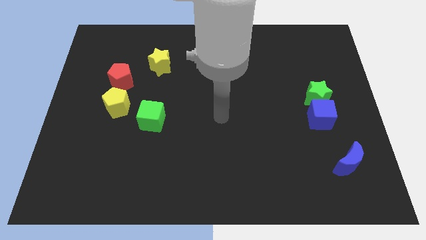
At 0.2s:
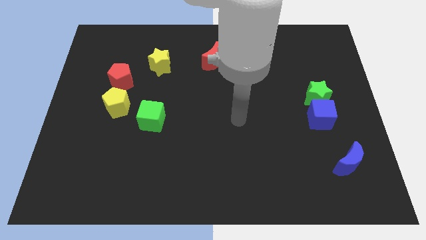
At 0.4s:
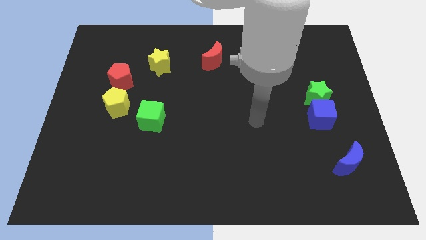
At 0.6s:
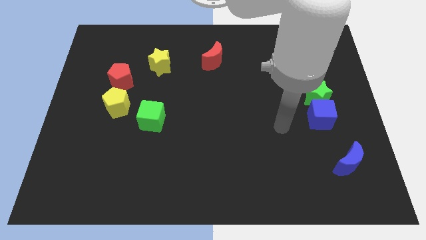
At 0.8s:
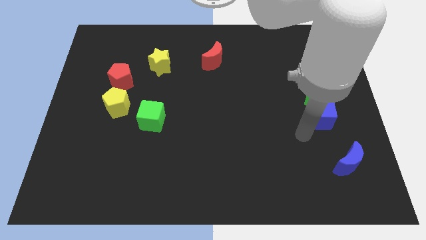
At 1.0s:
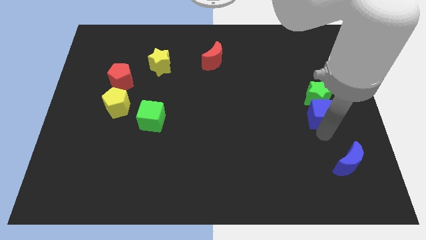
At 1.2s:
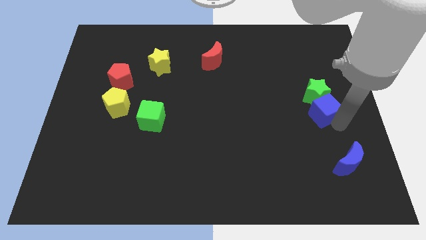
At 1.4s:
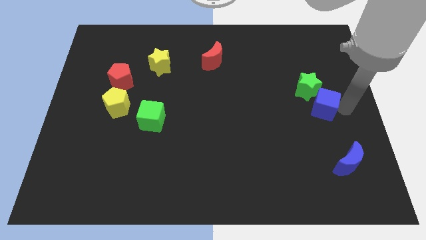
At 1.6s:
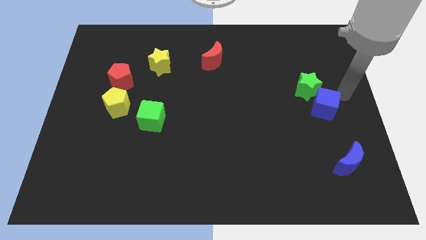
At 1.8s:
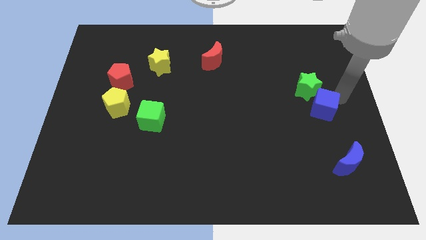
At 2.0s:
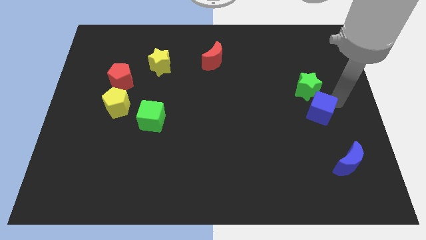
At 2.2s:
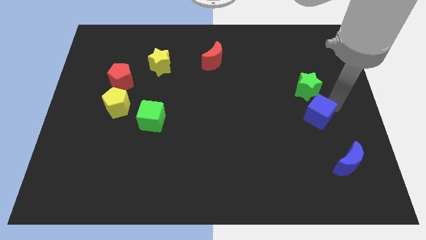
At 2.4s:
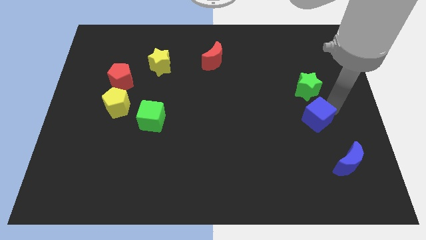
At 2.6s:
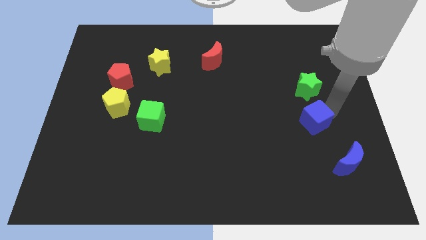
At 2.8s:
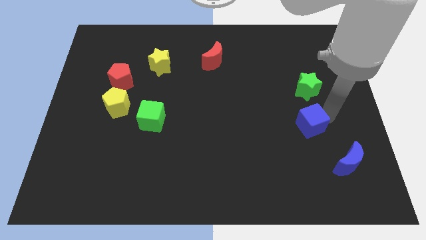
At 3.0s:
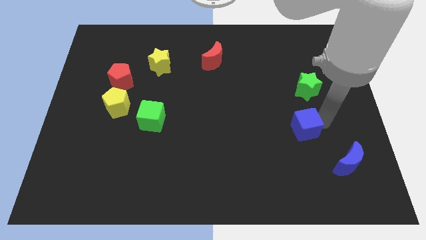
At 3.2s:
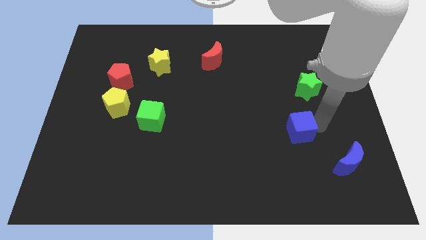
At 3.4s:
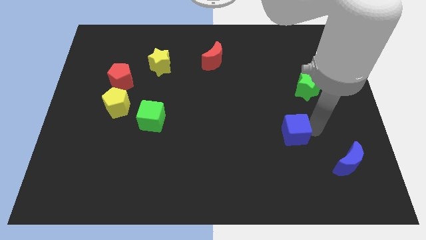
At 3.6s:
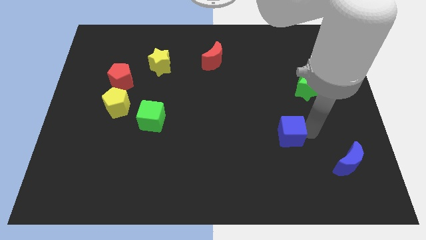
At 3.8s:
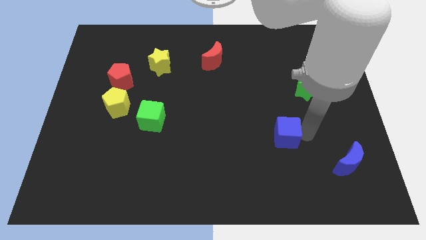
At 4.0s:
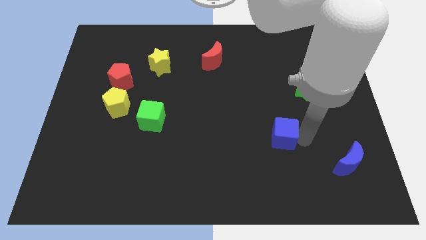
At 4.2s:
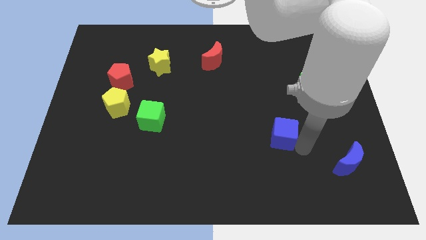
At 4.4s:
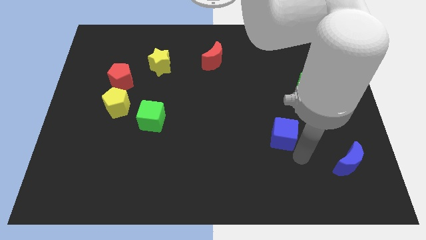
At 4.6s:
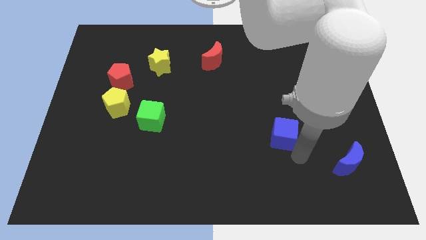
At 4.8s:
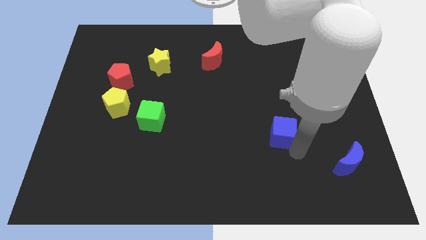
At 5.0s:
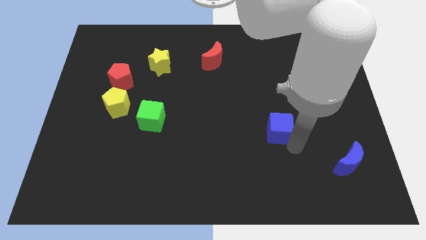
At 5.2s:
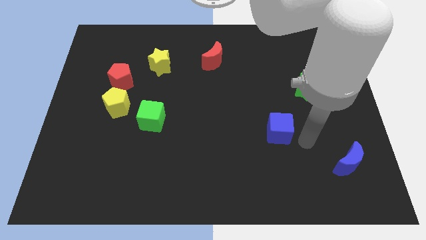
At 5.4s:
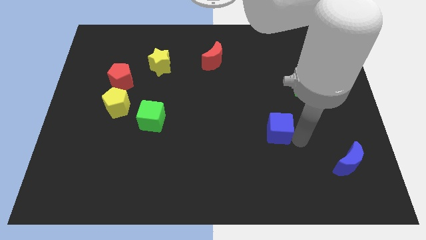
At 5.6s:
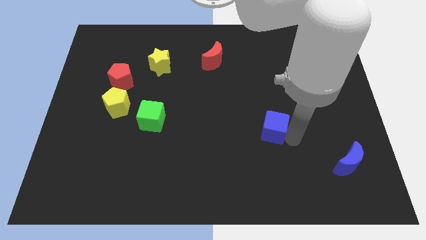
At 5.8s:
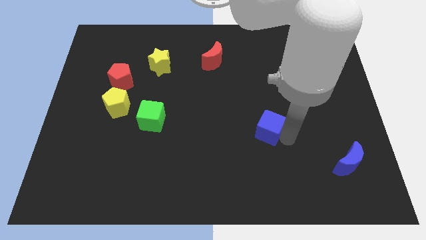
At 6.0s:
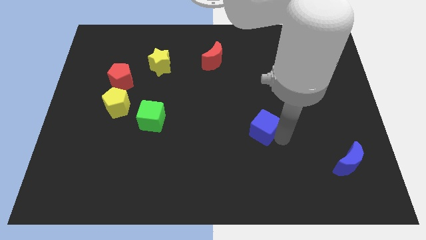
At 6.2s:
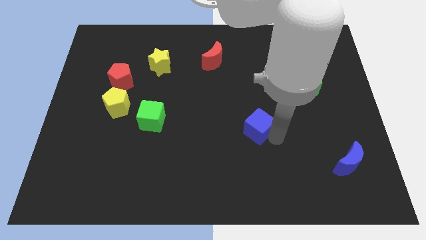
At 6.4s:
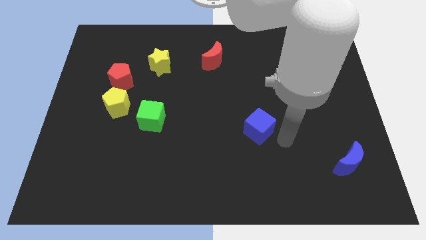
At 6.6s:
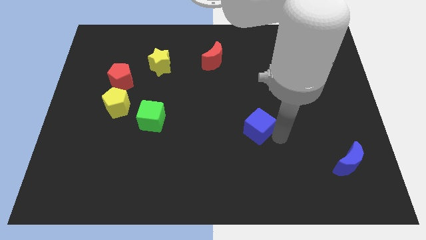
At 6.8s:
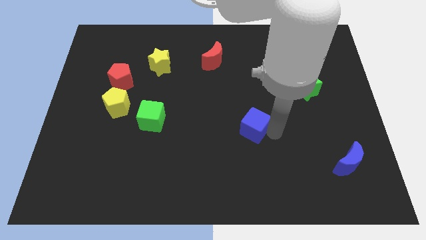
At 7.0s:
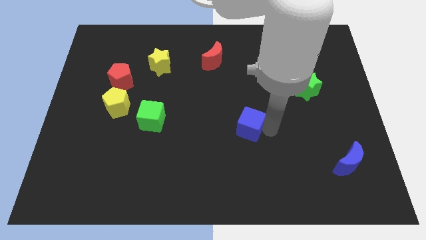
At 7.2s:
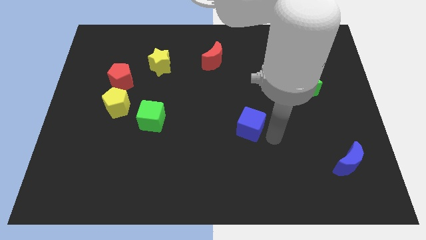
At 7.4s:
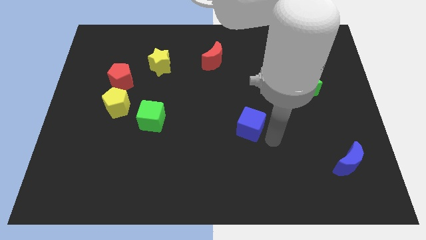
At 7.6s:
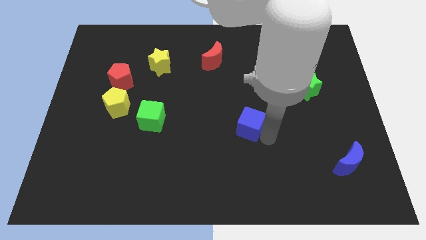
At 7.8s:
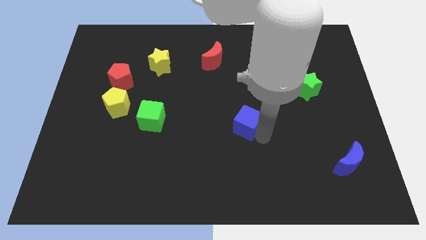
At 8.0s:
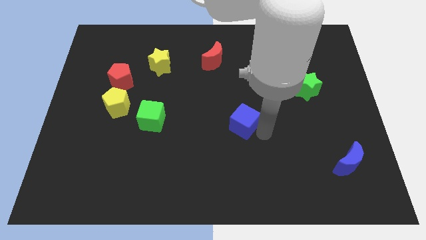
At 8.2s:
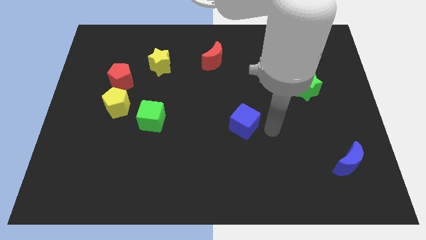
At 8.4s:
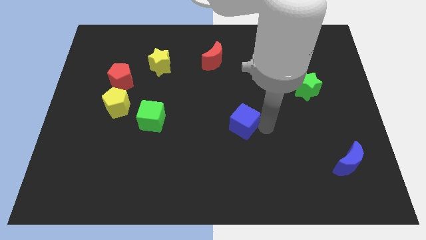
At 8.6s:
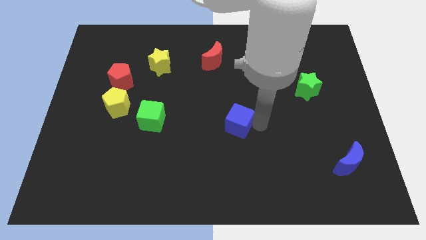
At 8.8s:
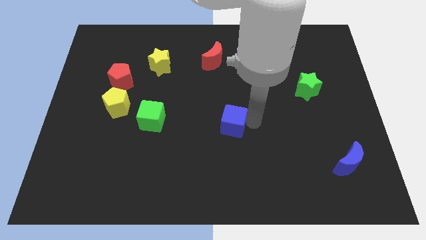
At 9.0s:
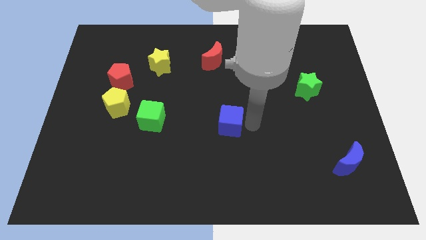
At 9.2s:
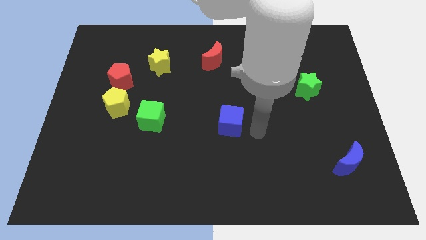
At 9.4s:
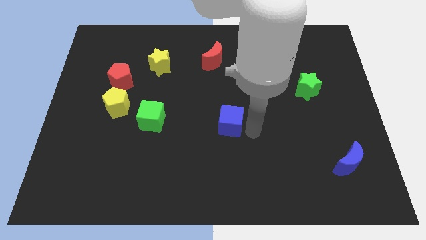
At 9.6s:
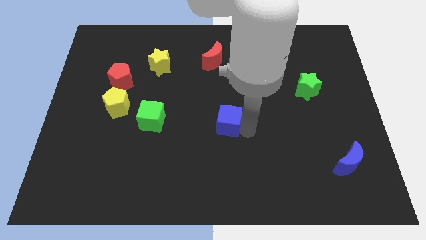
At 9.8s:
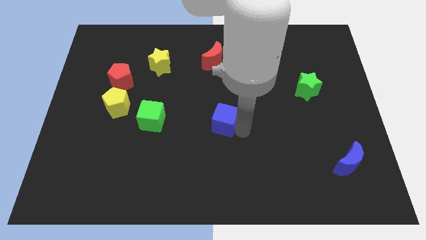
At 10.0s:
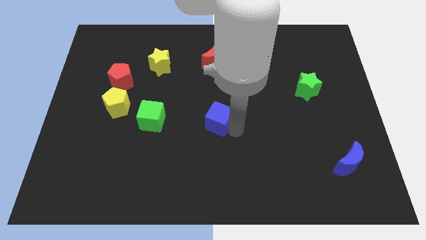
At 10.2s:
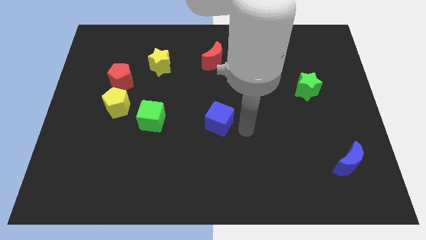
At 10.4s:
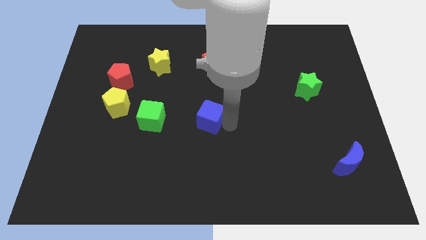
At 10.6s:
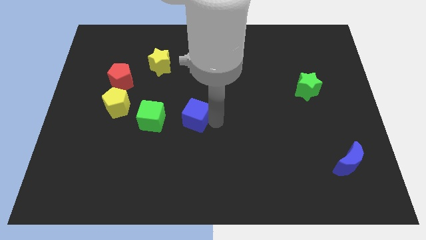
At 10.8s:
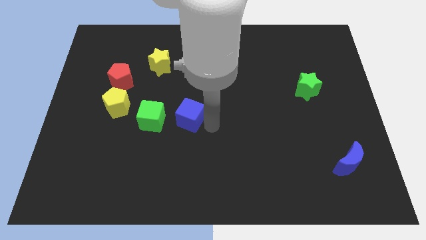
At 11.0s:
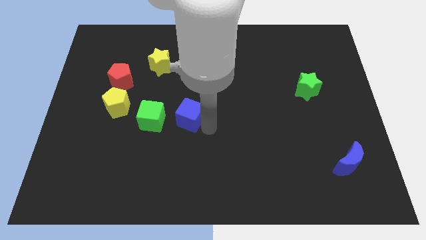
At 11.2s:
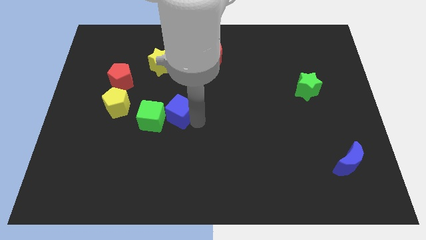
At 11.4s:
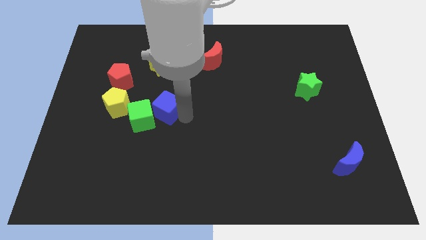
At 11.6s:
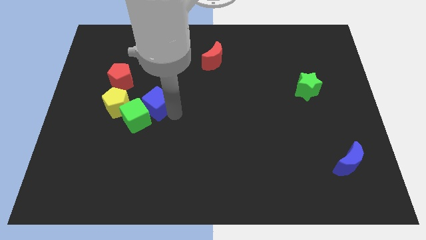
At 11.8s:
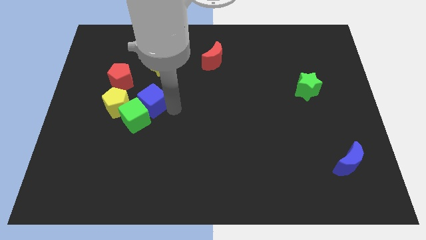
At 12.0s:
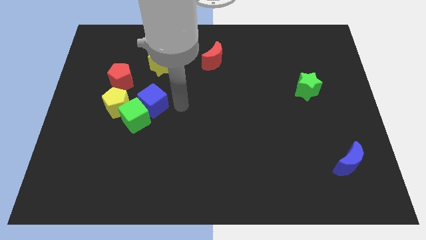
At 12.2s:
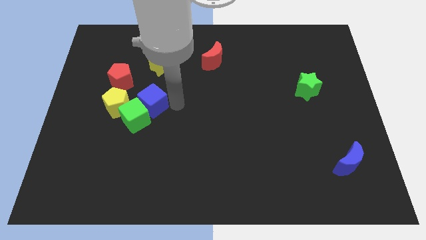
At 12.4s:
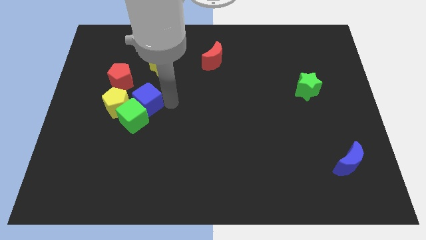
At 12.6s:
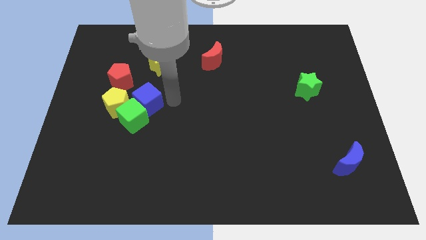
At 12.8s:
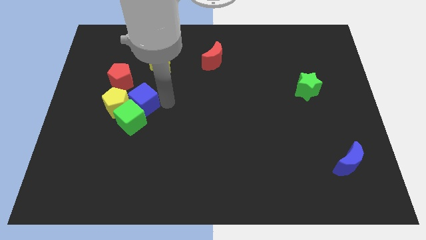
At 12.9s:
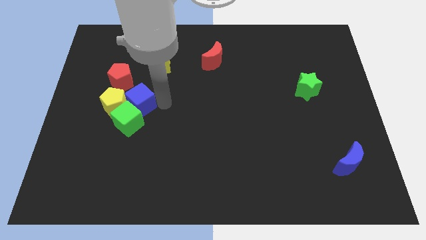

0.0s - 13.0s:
move the blue cube towards the yellow pentagon

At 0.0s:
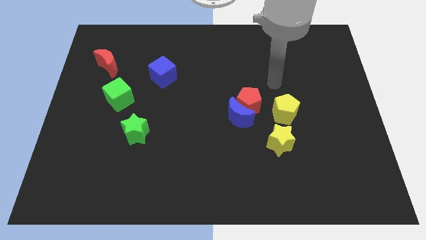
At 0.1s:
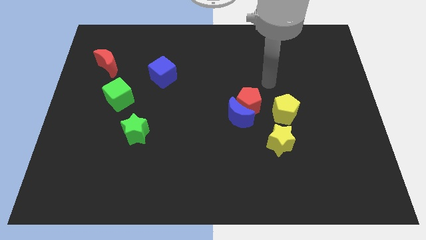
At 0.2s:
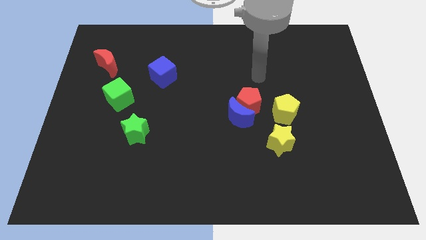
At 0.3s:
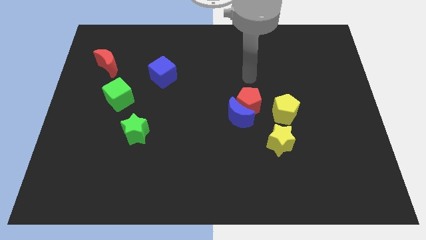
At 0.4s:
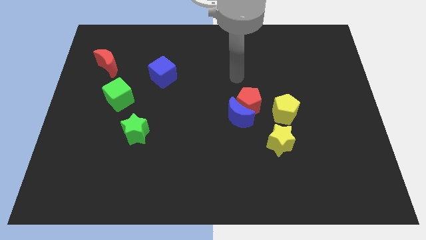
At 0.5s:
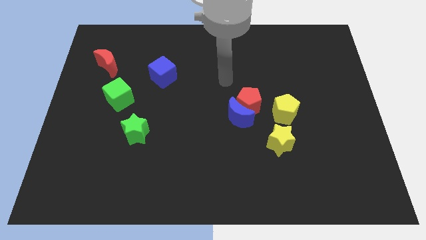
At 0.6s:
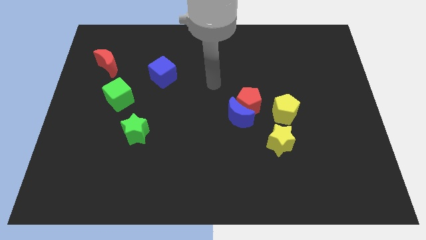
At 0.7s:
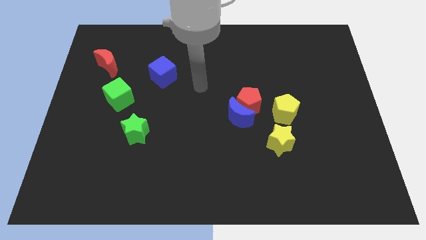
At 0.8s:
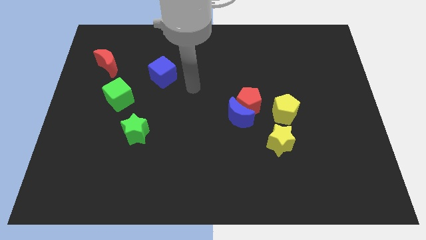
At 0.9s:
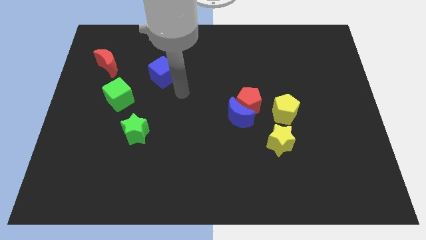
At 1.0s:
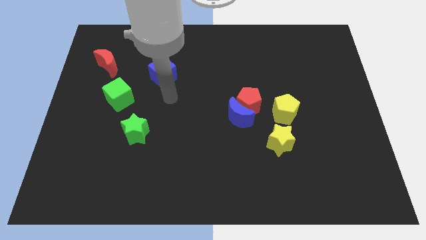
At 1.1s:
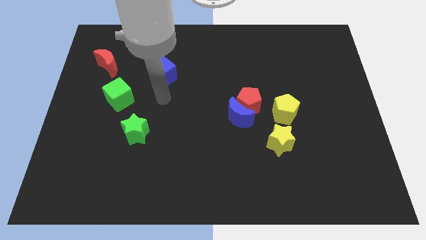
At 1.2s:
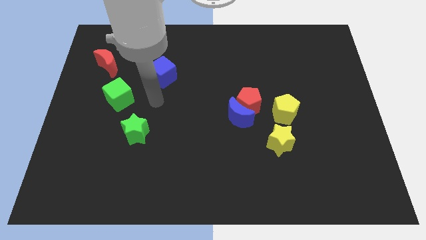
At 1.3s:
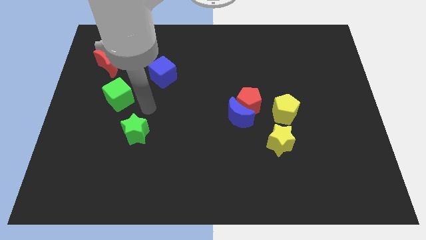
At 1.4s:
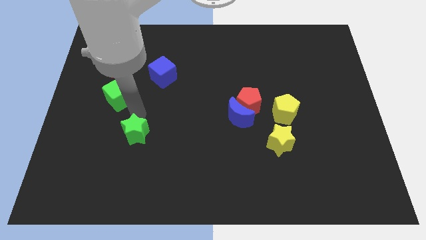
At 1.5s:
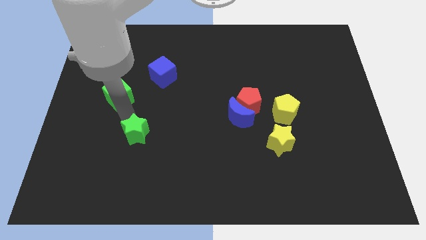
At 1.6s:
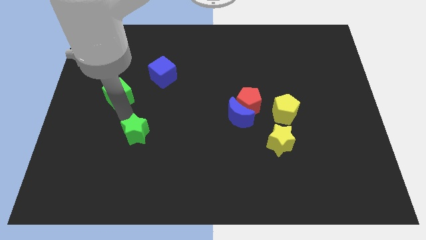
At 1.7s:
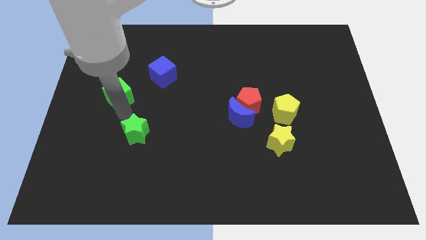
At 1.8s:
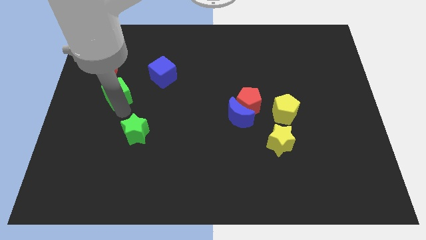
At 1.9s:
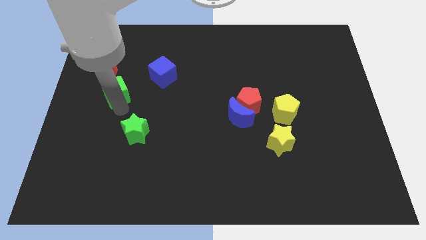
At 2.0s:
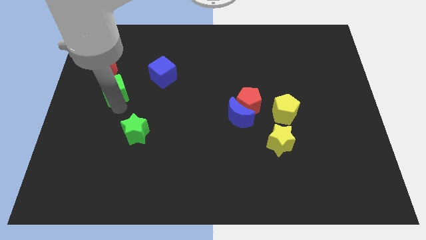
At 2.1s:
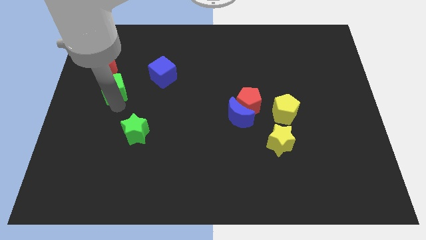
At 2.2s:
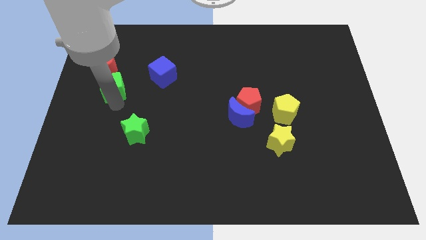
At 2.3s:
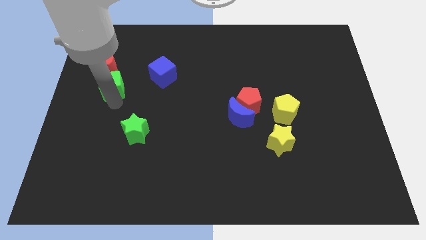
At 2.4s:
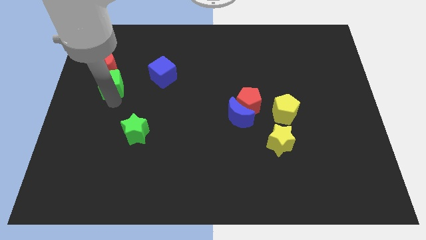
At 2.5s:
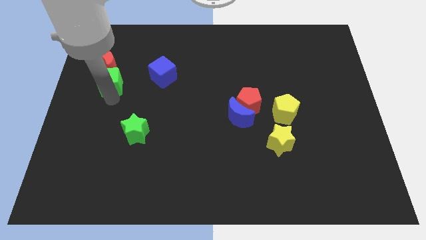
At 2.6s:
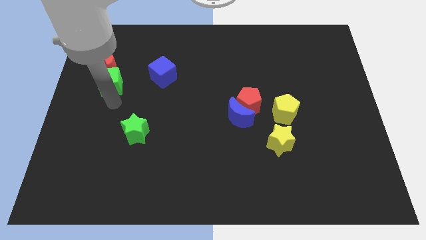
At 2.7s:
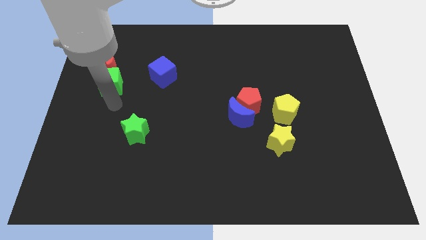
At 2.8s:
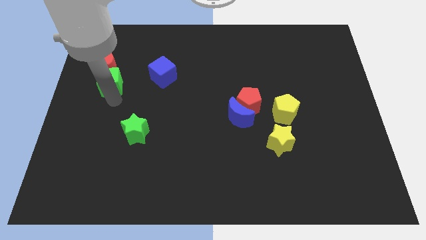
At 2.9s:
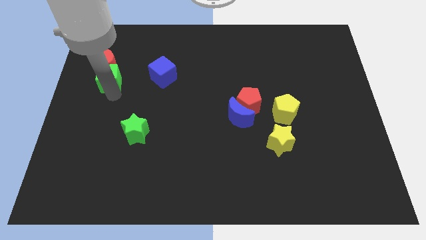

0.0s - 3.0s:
put the green cube towards the red moon
